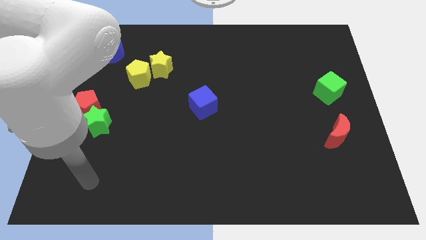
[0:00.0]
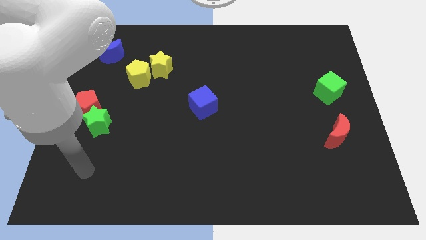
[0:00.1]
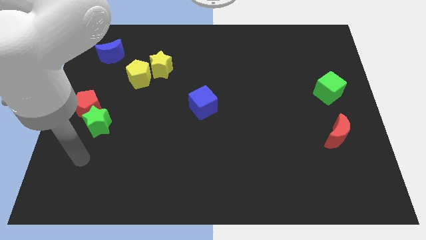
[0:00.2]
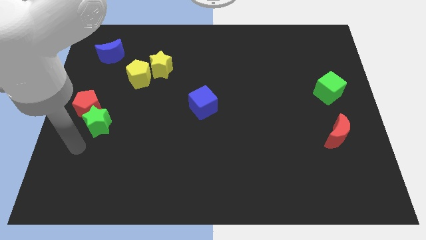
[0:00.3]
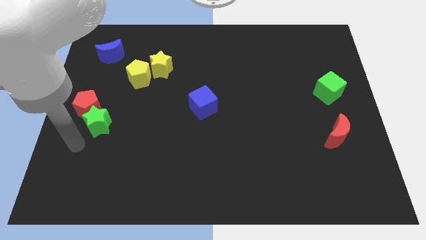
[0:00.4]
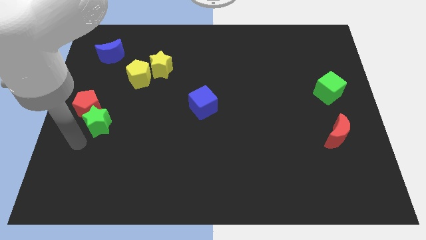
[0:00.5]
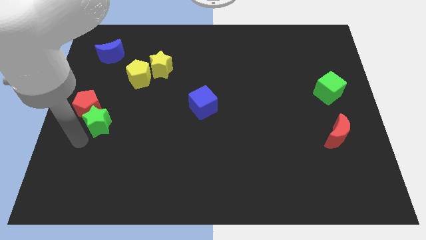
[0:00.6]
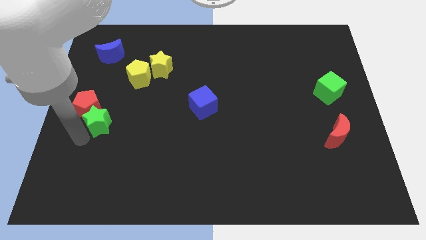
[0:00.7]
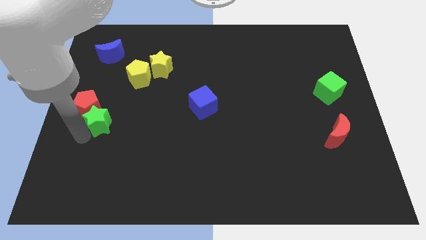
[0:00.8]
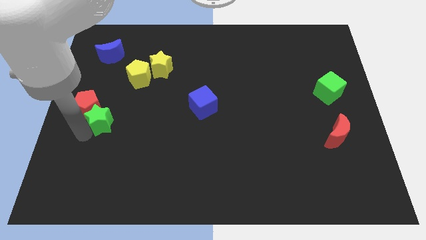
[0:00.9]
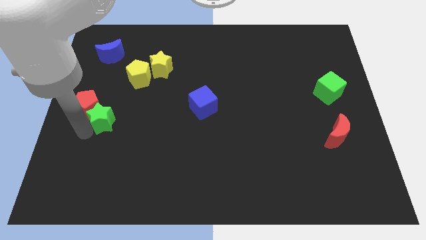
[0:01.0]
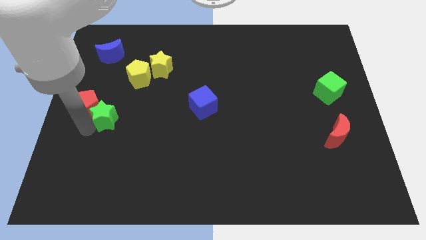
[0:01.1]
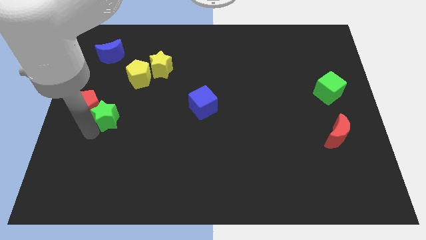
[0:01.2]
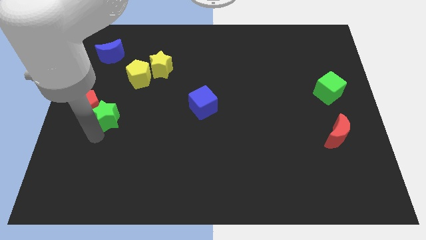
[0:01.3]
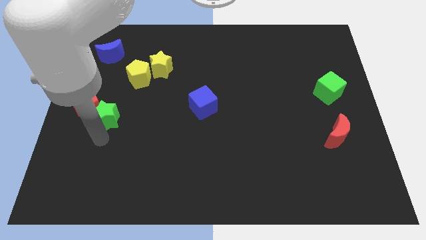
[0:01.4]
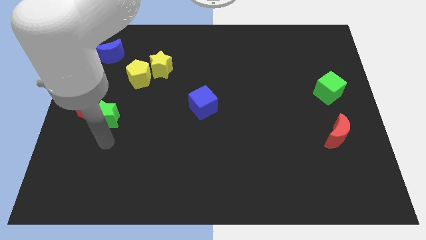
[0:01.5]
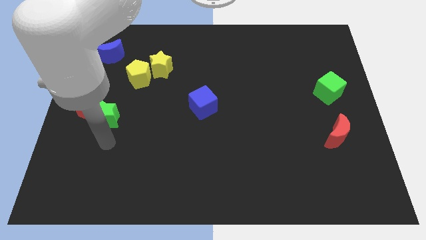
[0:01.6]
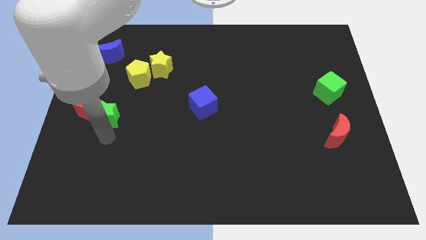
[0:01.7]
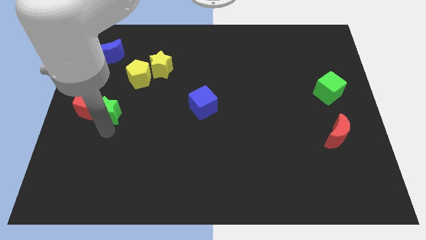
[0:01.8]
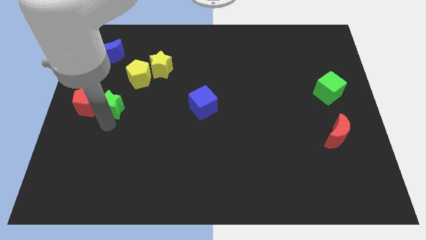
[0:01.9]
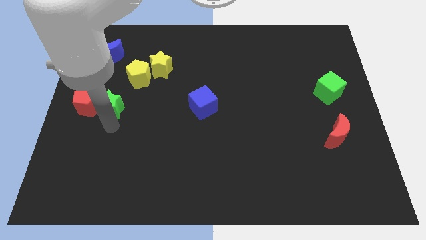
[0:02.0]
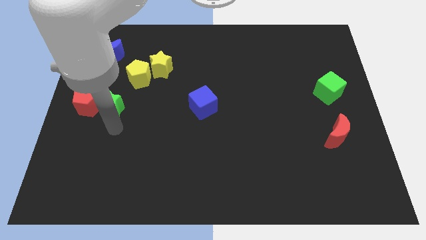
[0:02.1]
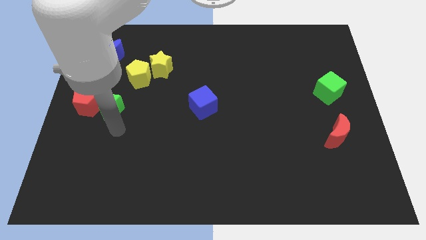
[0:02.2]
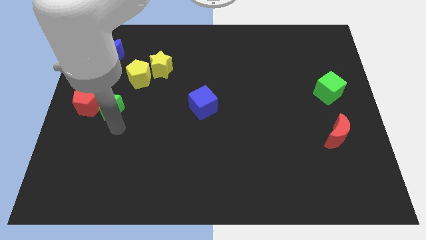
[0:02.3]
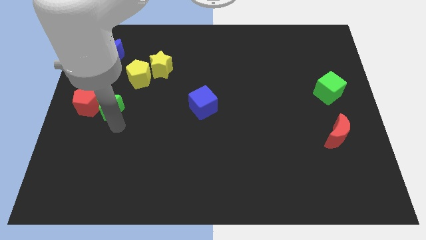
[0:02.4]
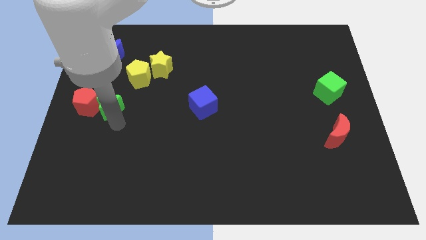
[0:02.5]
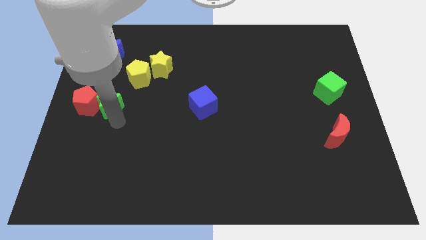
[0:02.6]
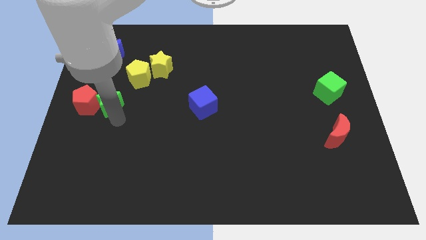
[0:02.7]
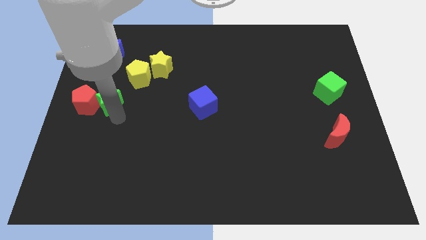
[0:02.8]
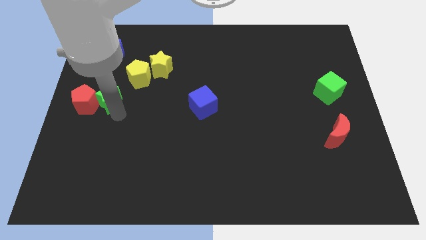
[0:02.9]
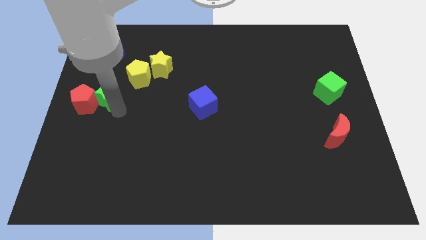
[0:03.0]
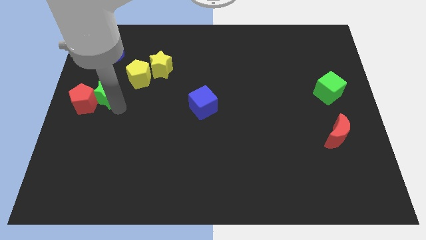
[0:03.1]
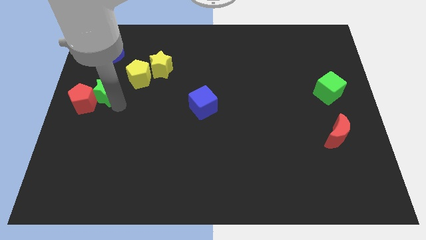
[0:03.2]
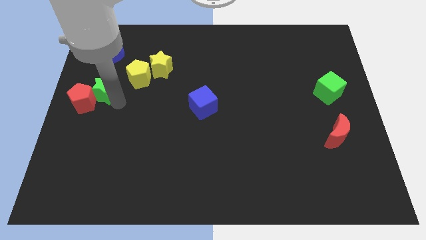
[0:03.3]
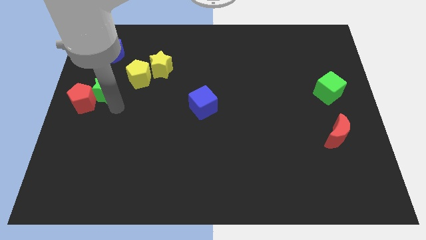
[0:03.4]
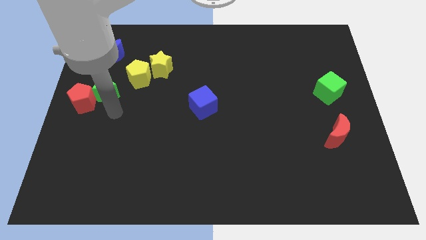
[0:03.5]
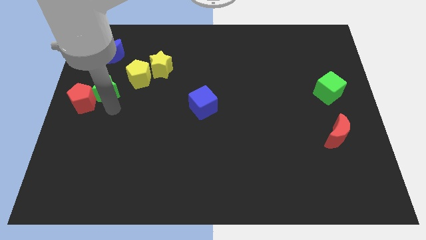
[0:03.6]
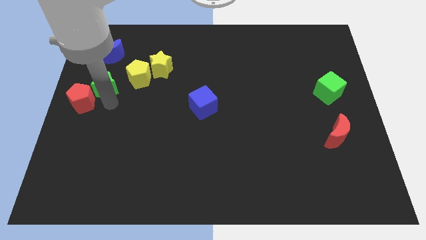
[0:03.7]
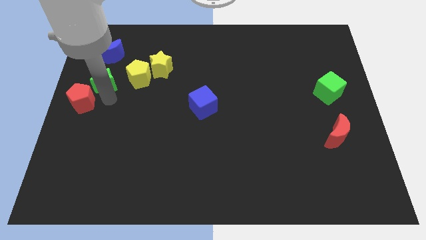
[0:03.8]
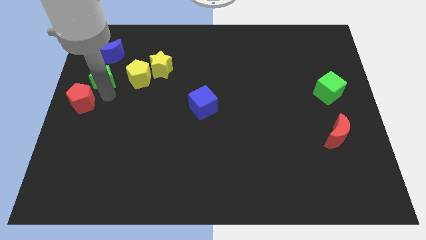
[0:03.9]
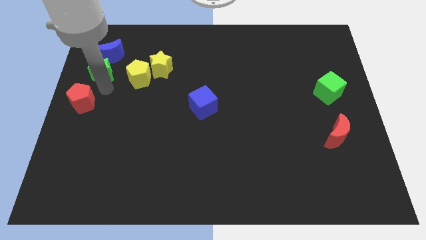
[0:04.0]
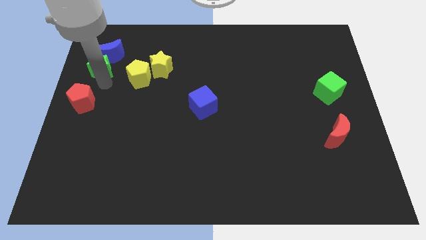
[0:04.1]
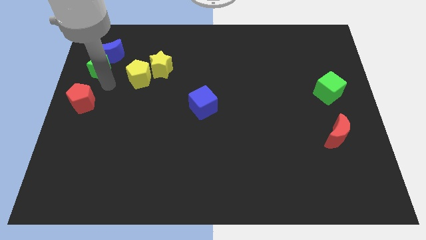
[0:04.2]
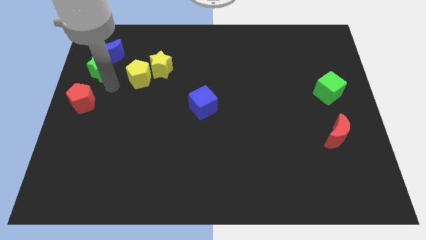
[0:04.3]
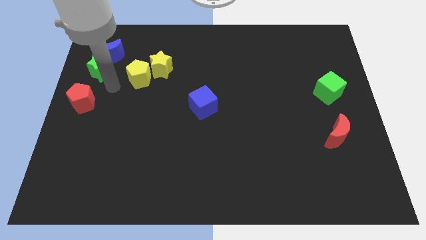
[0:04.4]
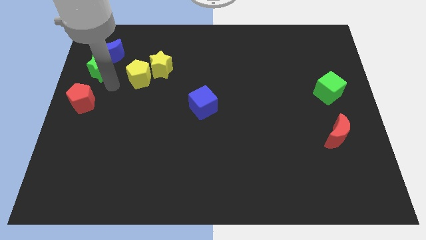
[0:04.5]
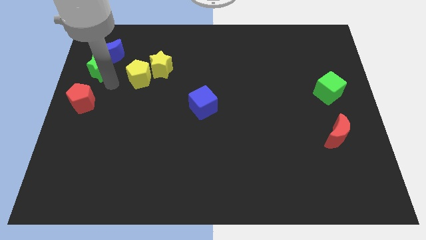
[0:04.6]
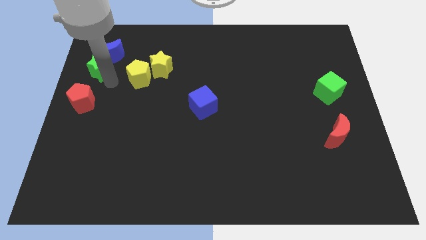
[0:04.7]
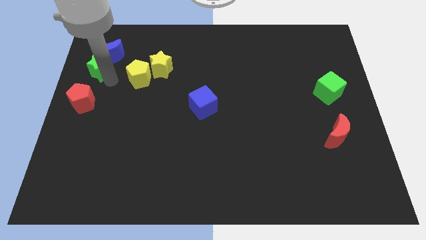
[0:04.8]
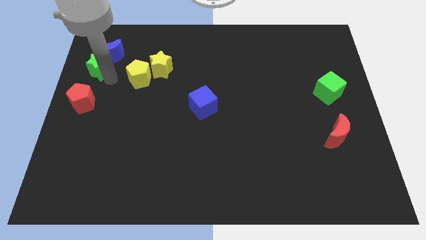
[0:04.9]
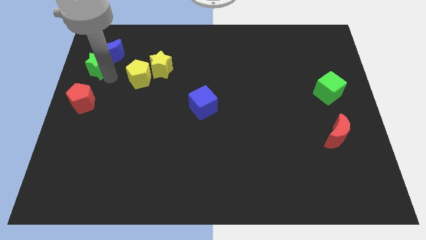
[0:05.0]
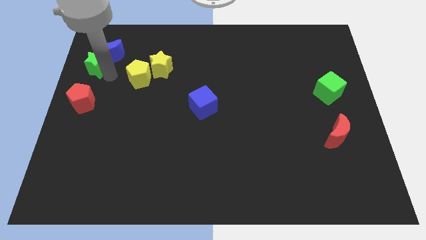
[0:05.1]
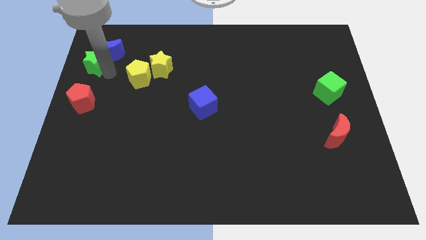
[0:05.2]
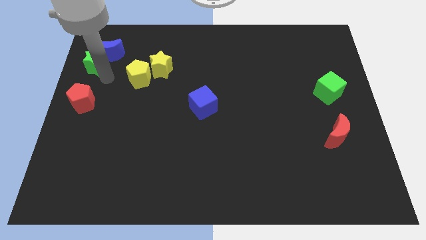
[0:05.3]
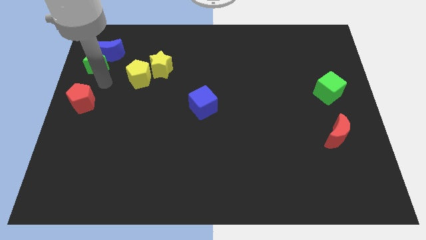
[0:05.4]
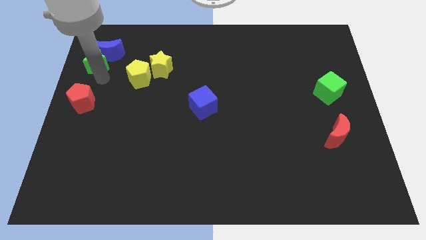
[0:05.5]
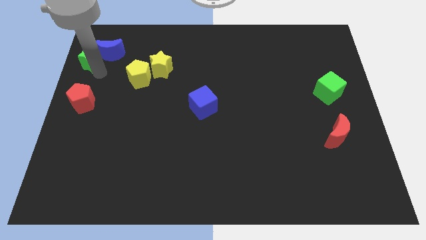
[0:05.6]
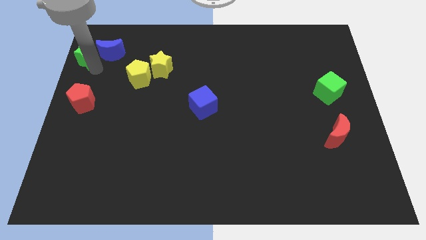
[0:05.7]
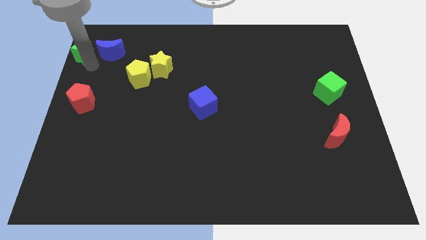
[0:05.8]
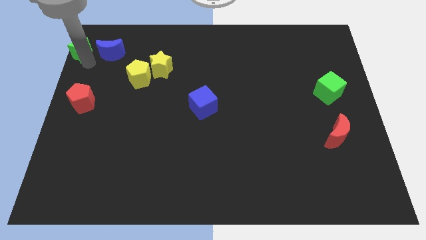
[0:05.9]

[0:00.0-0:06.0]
slide the green star to the top left

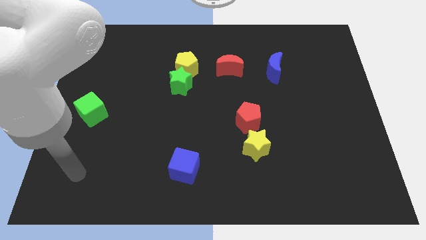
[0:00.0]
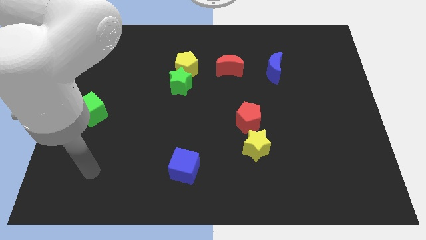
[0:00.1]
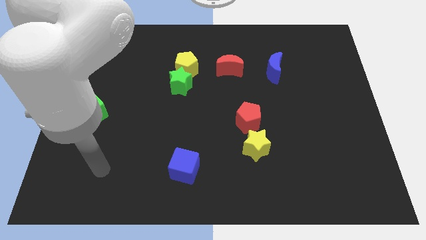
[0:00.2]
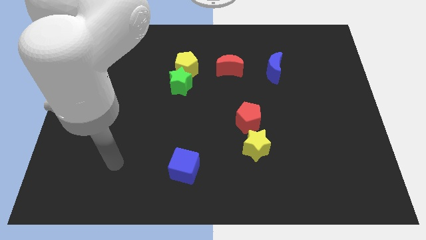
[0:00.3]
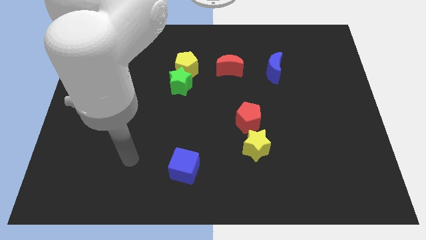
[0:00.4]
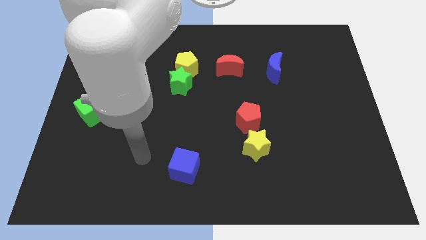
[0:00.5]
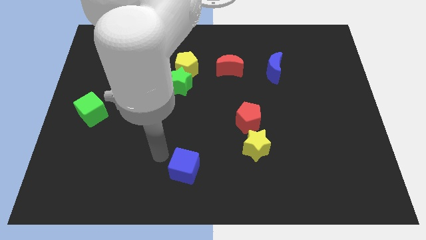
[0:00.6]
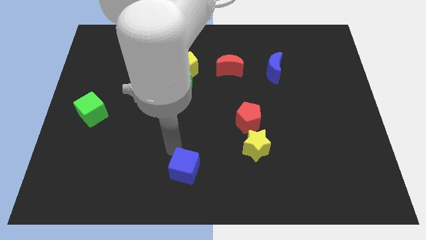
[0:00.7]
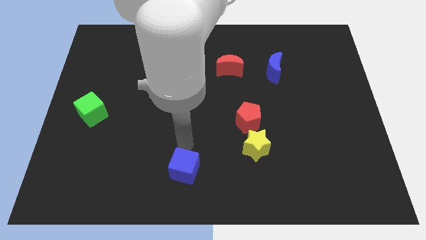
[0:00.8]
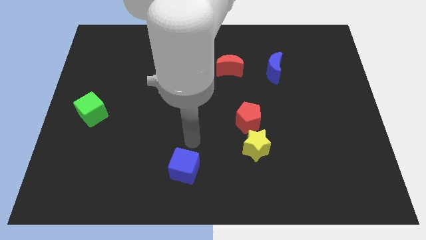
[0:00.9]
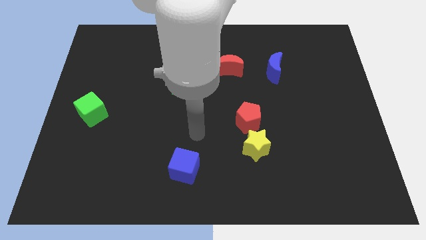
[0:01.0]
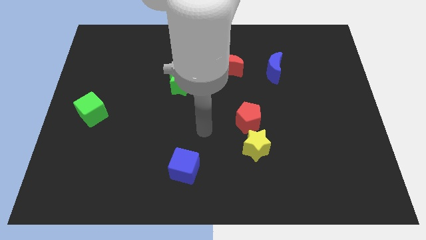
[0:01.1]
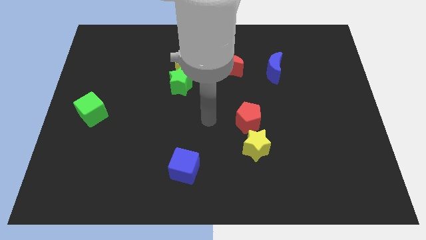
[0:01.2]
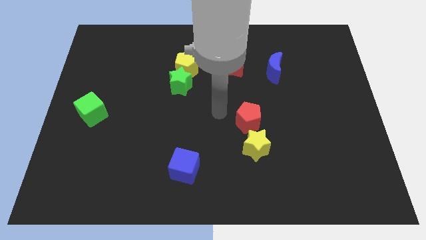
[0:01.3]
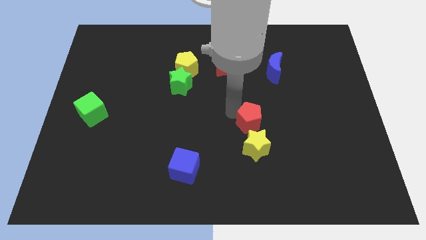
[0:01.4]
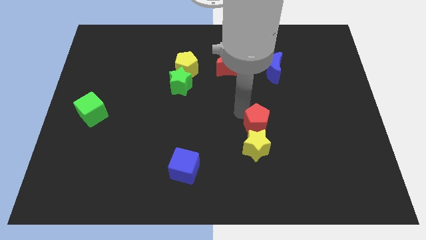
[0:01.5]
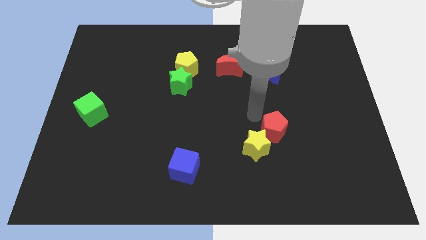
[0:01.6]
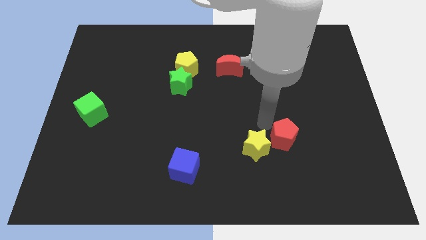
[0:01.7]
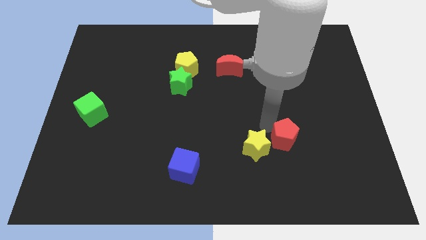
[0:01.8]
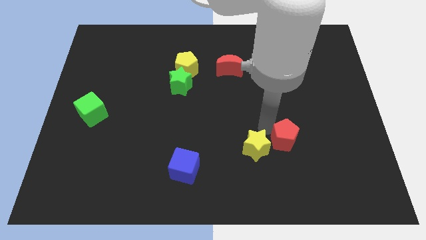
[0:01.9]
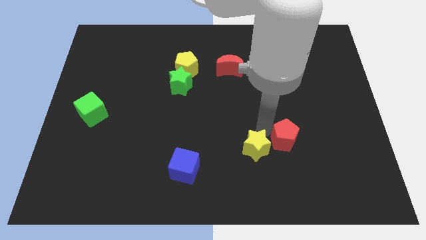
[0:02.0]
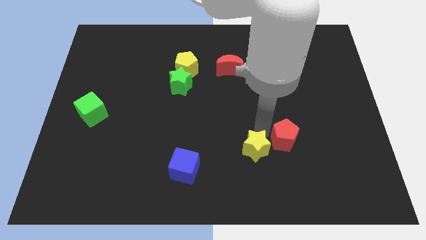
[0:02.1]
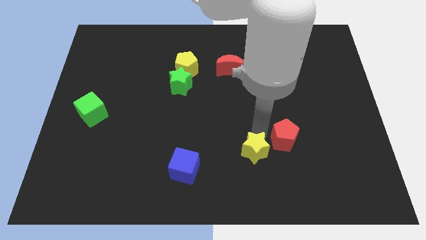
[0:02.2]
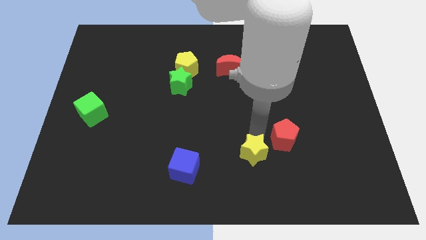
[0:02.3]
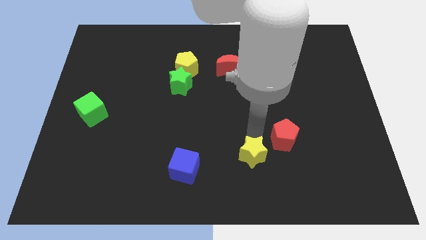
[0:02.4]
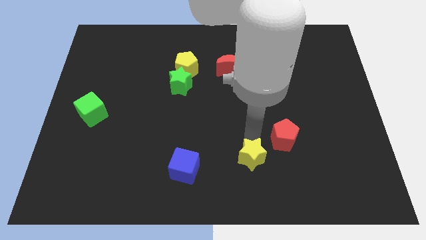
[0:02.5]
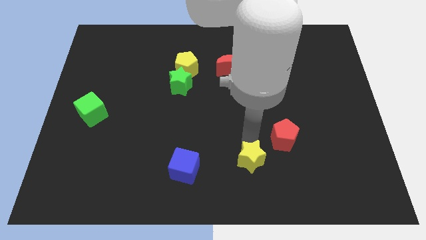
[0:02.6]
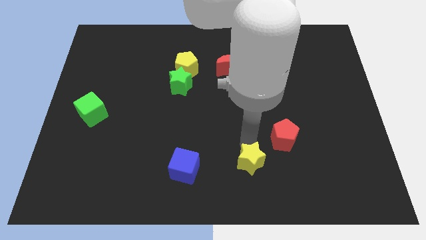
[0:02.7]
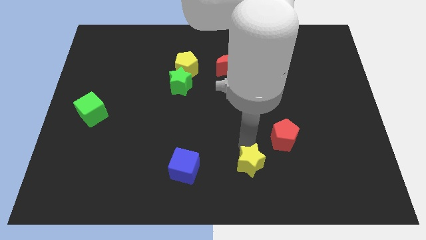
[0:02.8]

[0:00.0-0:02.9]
move the yellow star to the bottom
